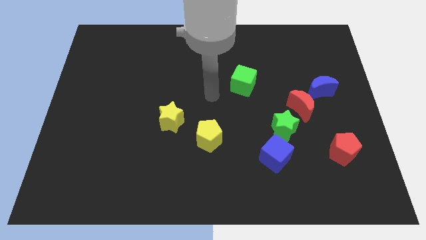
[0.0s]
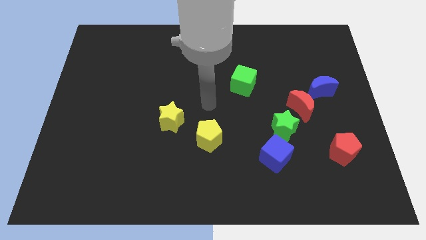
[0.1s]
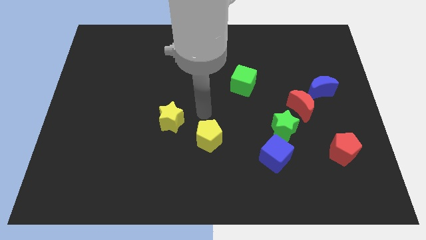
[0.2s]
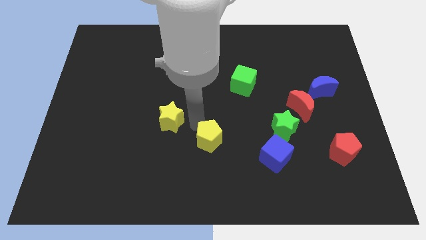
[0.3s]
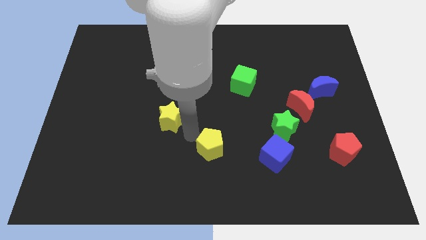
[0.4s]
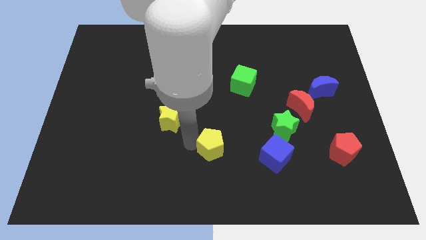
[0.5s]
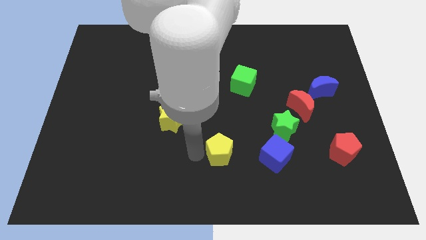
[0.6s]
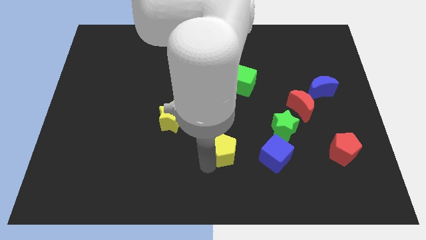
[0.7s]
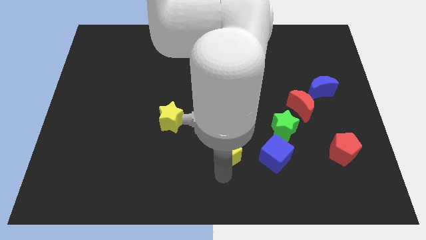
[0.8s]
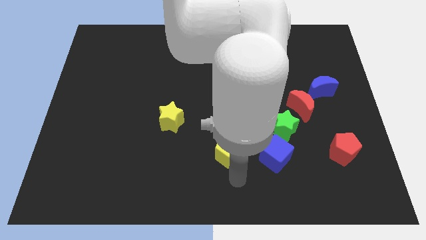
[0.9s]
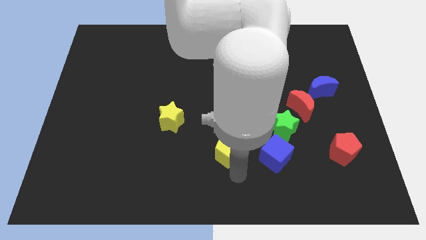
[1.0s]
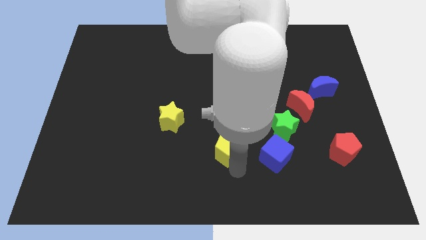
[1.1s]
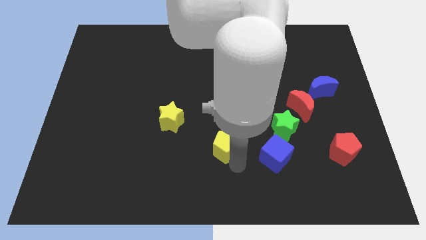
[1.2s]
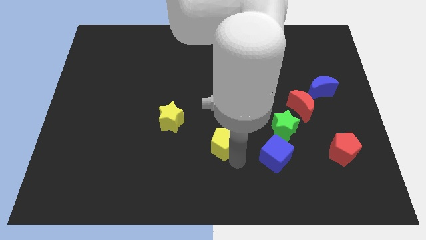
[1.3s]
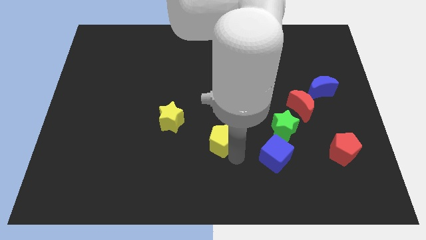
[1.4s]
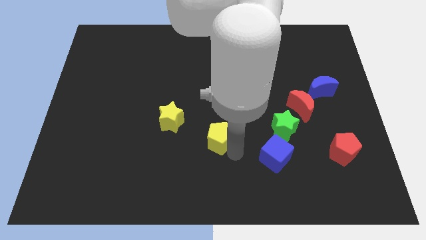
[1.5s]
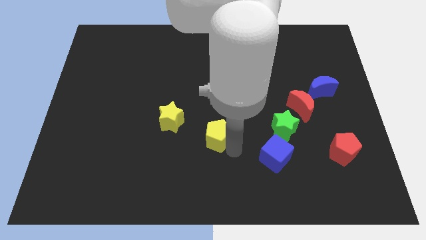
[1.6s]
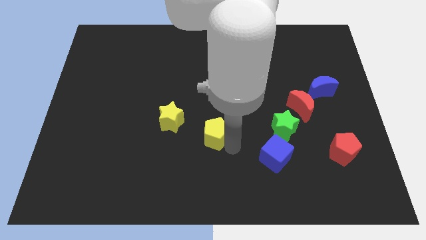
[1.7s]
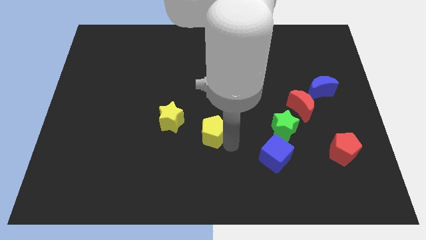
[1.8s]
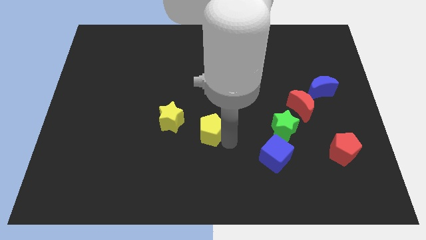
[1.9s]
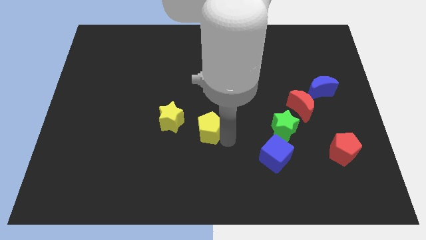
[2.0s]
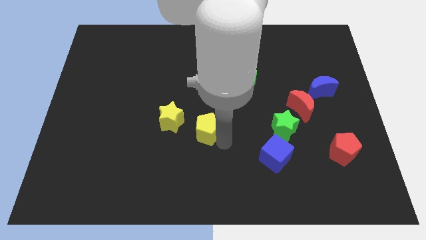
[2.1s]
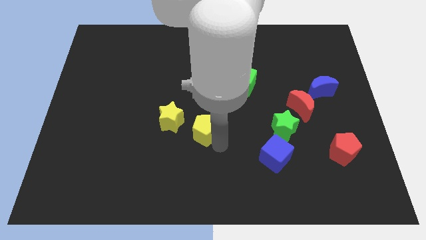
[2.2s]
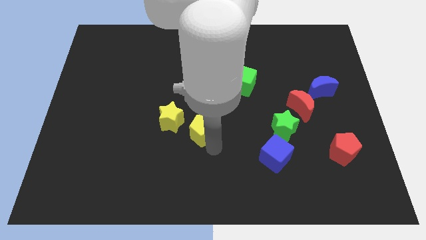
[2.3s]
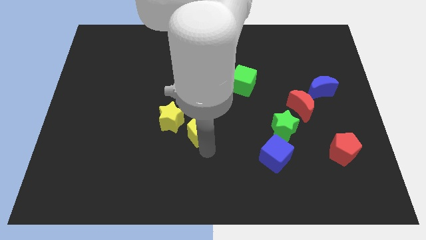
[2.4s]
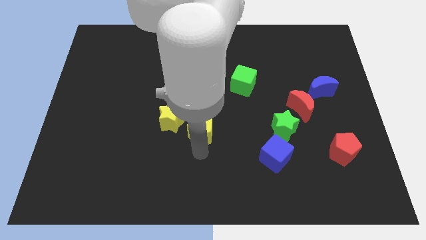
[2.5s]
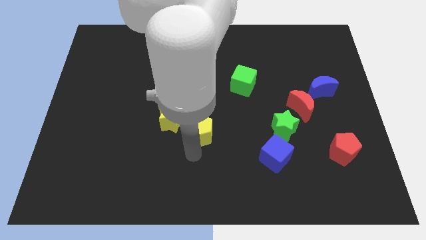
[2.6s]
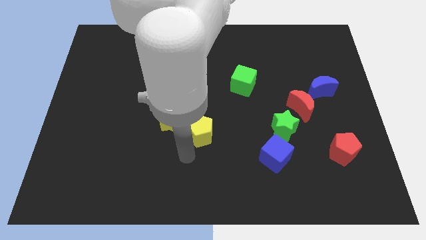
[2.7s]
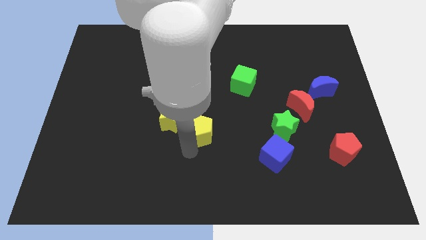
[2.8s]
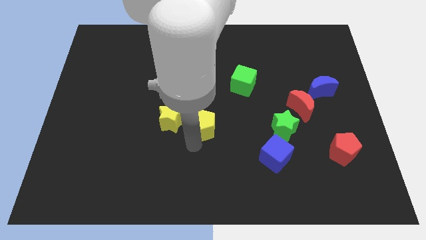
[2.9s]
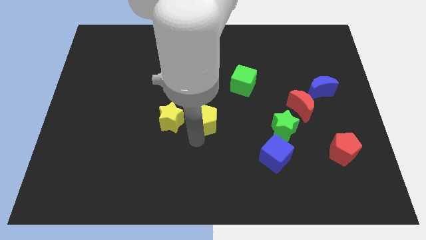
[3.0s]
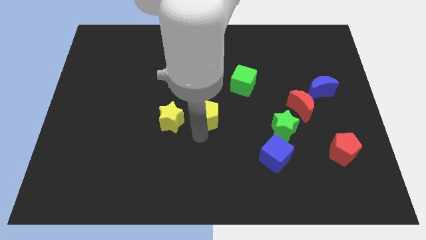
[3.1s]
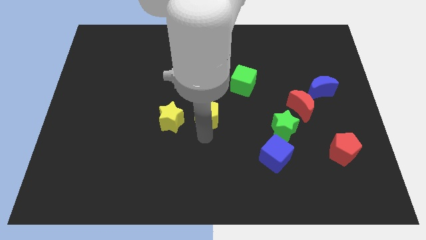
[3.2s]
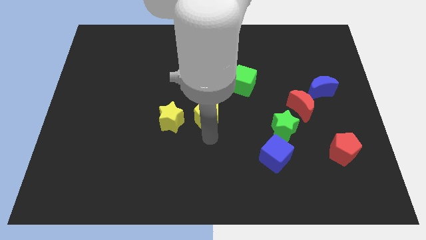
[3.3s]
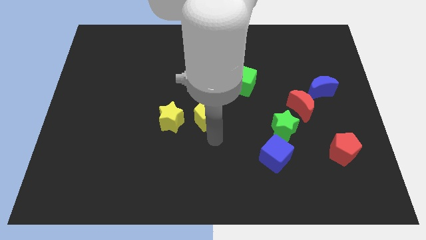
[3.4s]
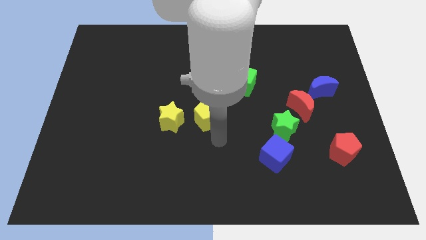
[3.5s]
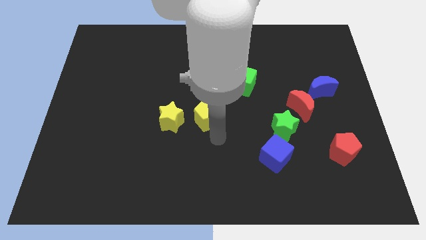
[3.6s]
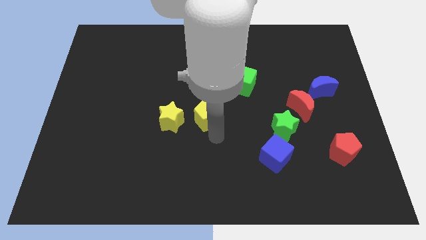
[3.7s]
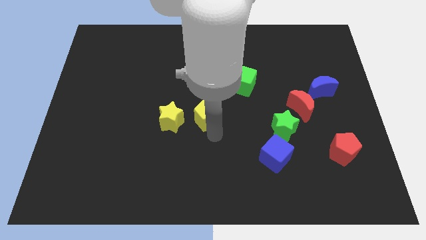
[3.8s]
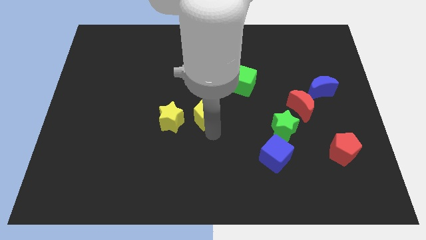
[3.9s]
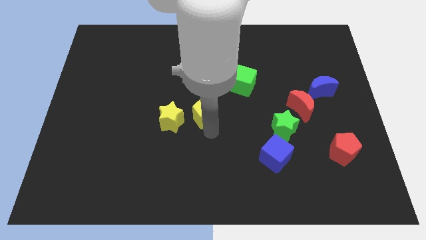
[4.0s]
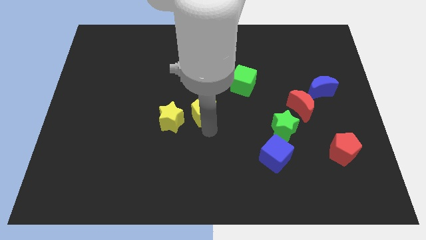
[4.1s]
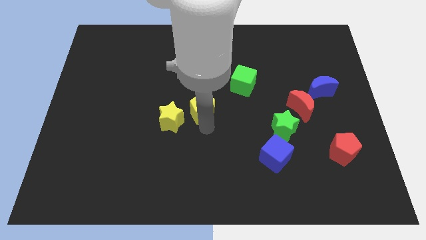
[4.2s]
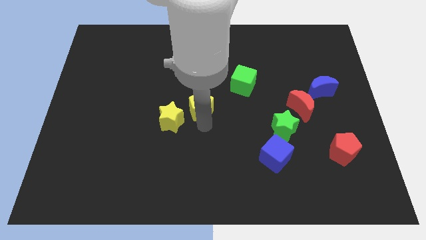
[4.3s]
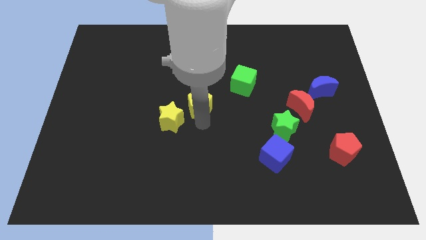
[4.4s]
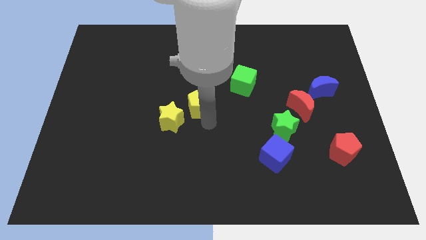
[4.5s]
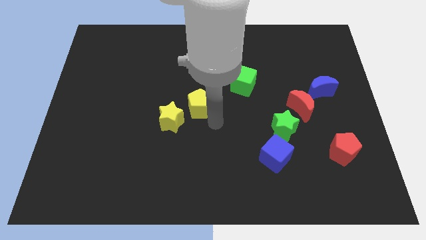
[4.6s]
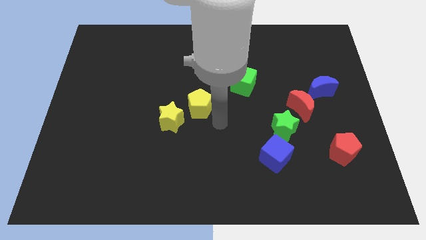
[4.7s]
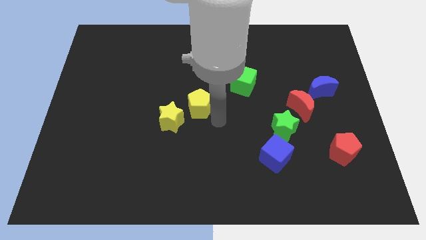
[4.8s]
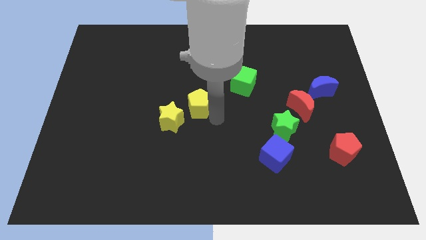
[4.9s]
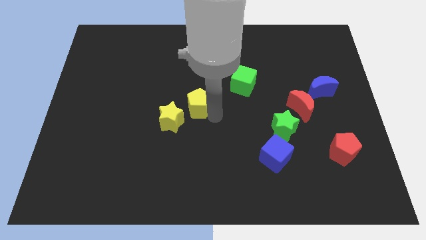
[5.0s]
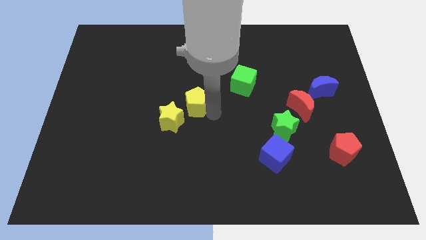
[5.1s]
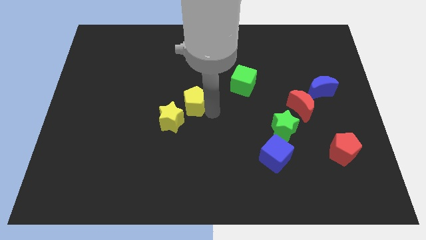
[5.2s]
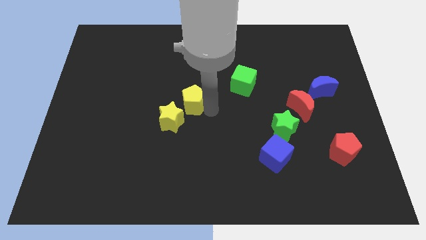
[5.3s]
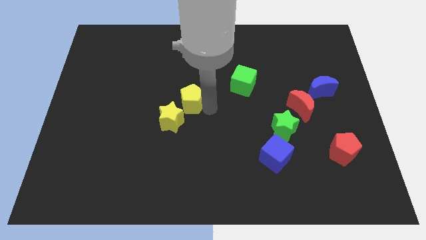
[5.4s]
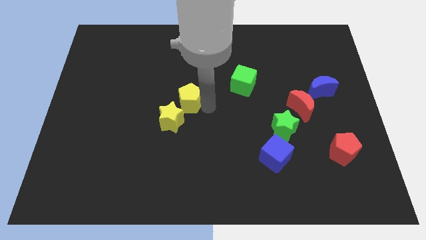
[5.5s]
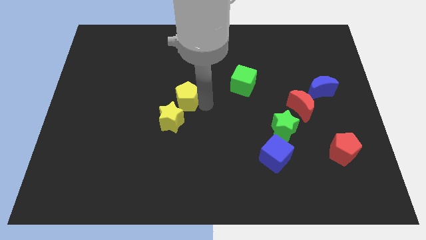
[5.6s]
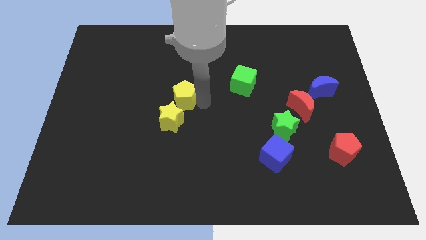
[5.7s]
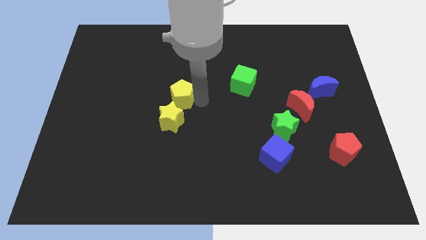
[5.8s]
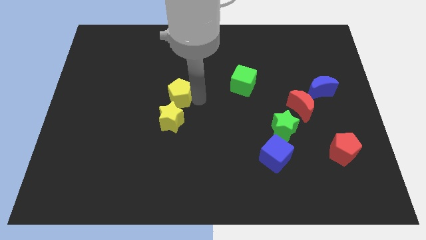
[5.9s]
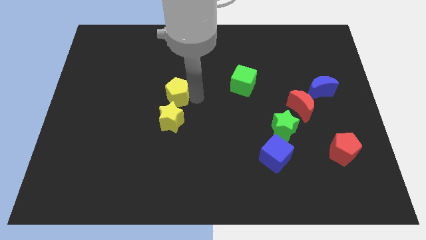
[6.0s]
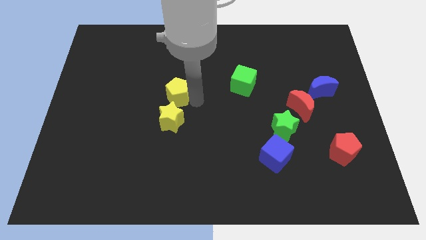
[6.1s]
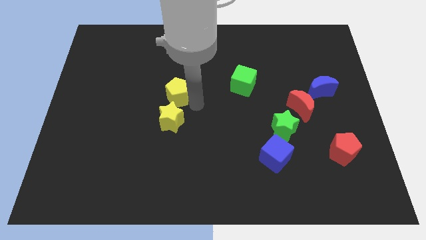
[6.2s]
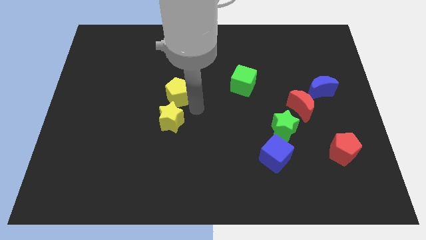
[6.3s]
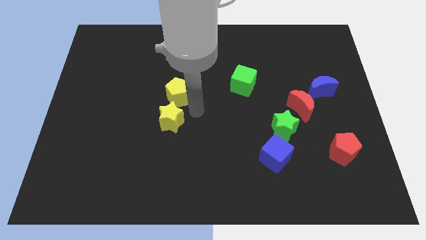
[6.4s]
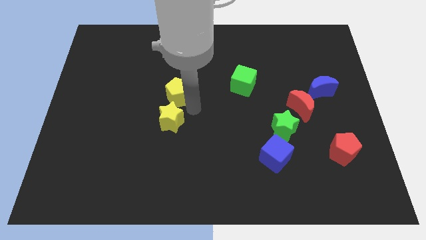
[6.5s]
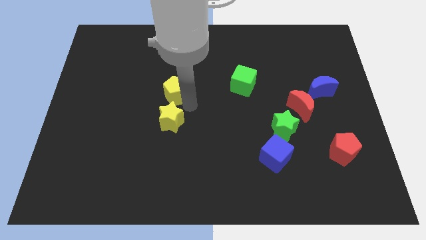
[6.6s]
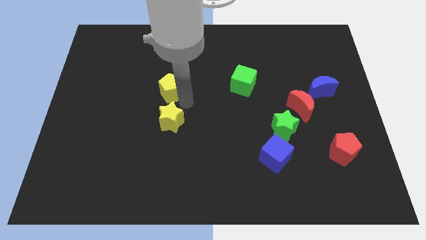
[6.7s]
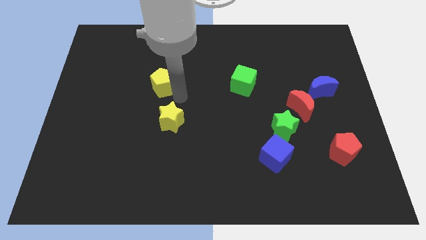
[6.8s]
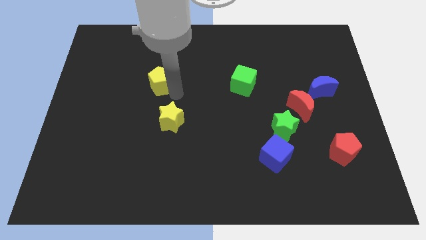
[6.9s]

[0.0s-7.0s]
push the yellow pentagon upwards and left diagonally

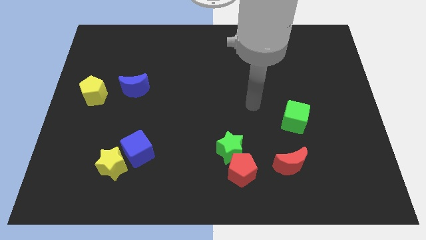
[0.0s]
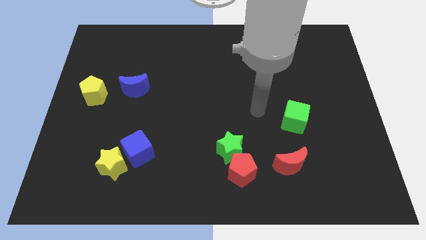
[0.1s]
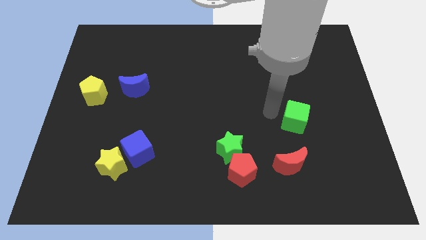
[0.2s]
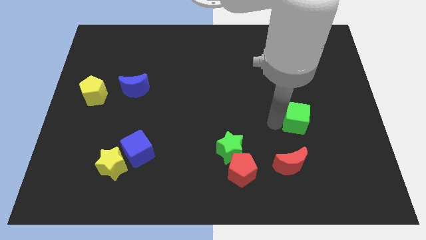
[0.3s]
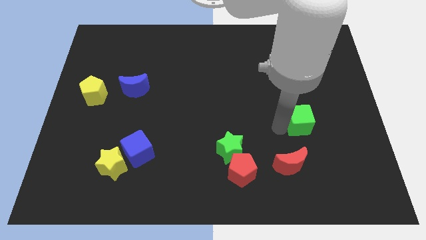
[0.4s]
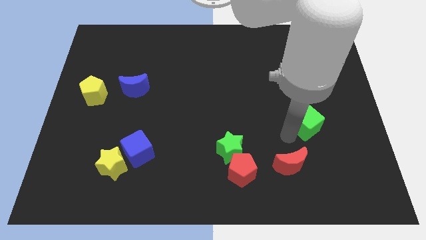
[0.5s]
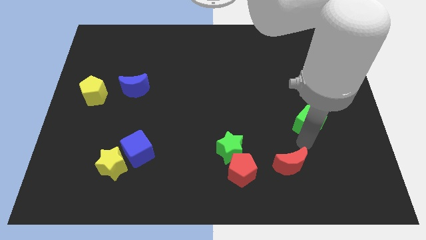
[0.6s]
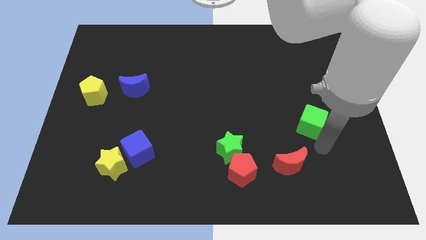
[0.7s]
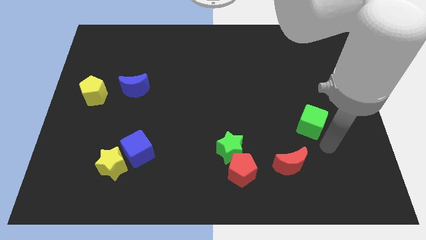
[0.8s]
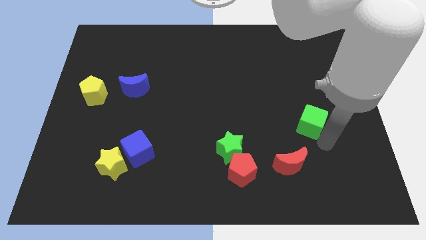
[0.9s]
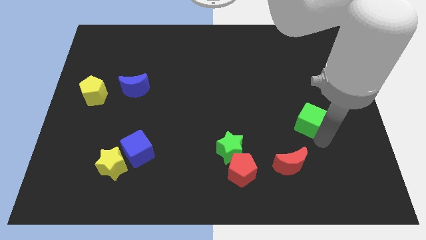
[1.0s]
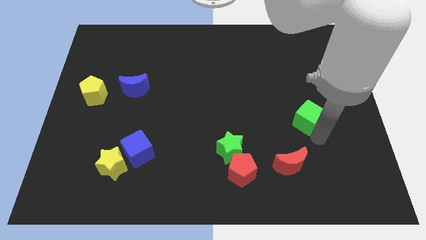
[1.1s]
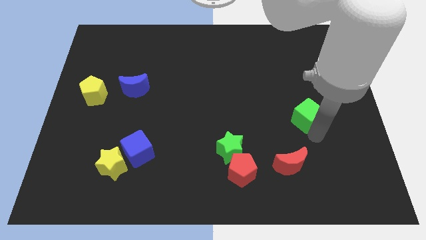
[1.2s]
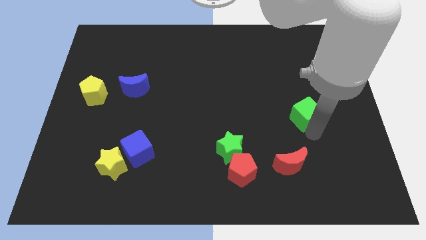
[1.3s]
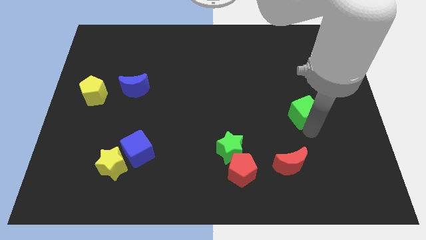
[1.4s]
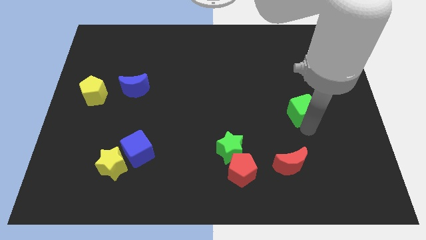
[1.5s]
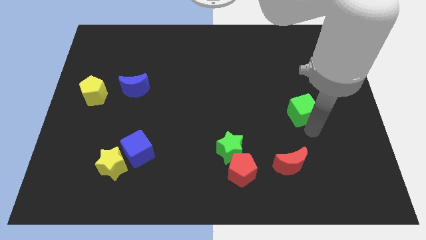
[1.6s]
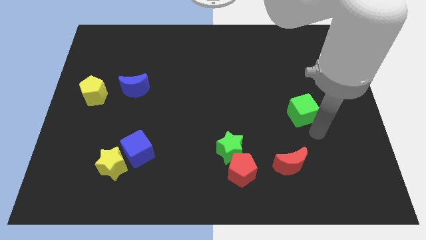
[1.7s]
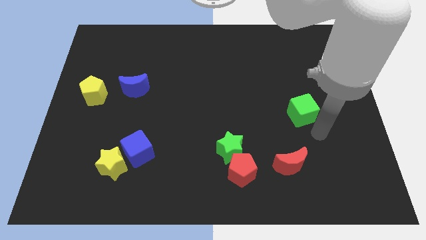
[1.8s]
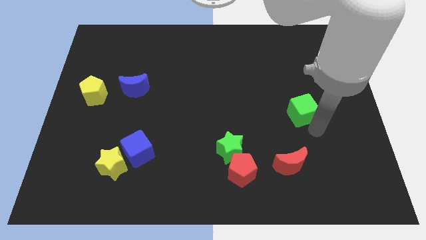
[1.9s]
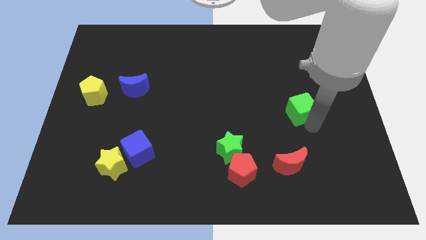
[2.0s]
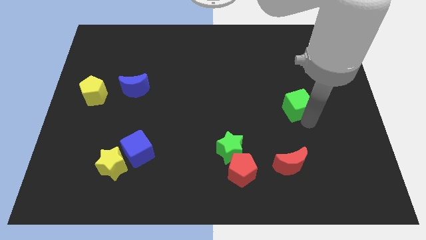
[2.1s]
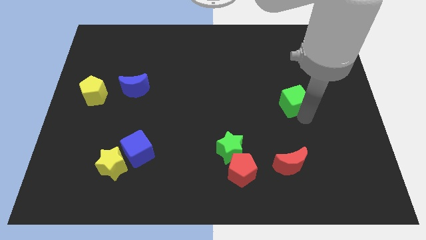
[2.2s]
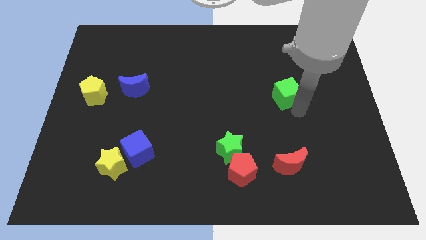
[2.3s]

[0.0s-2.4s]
slightly move the green cube upwards
